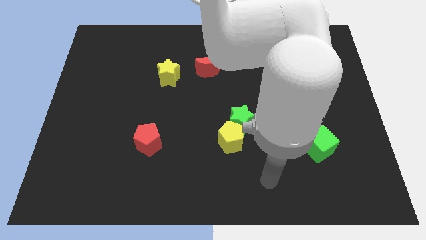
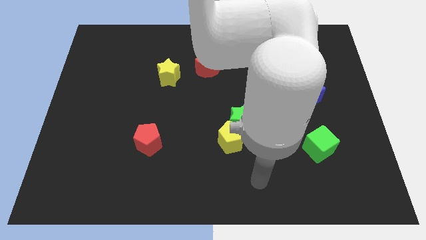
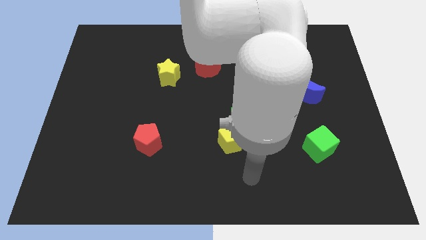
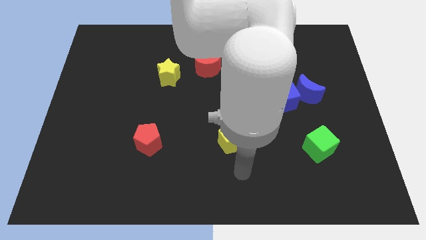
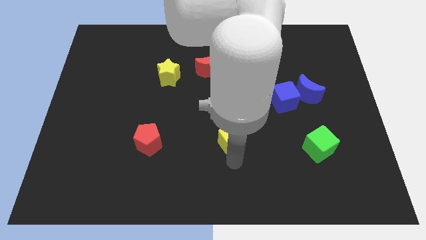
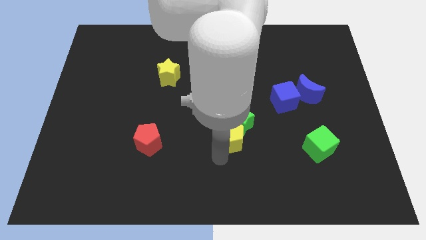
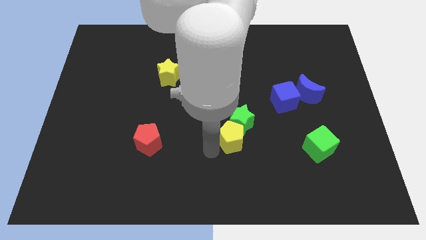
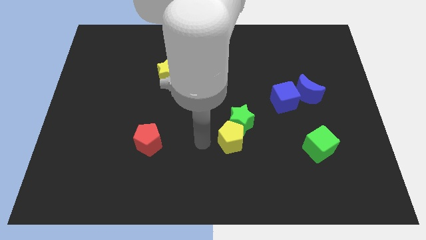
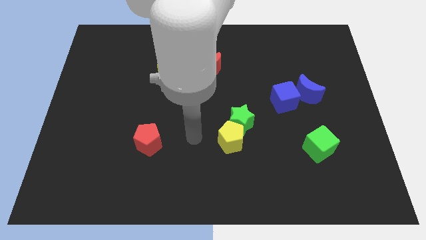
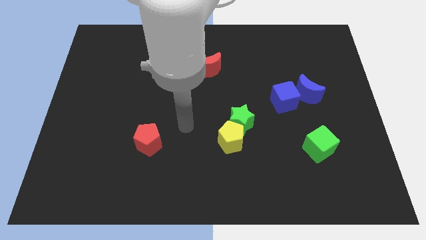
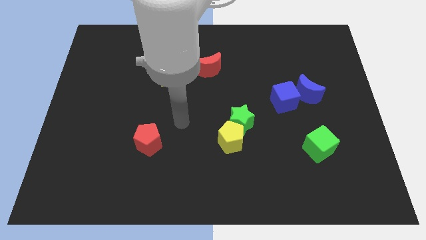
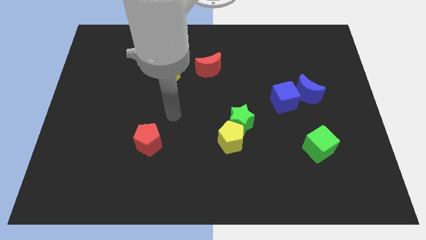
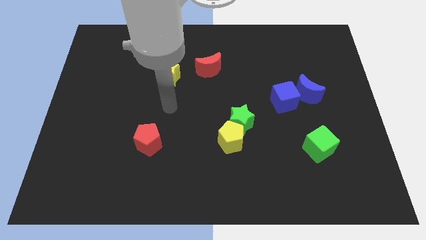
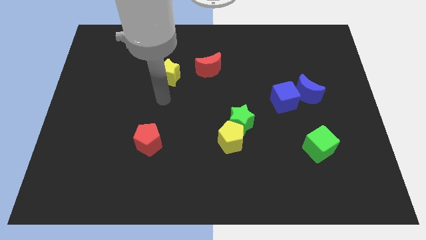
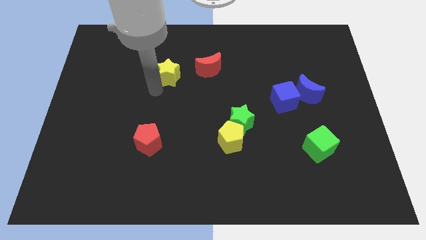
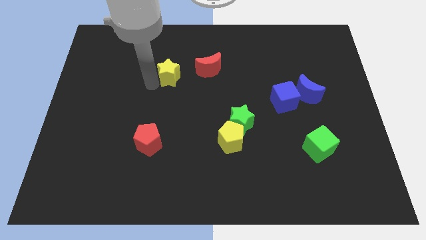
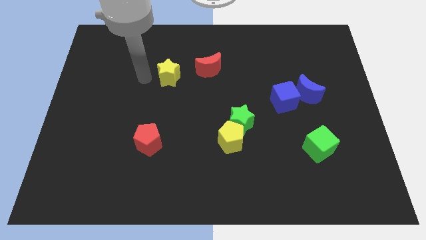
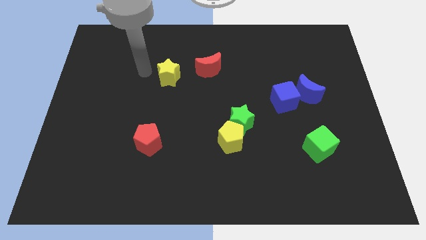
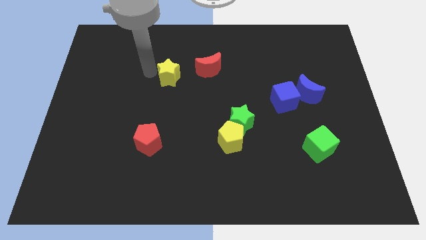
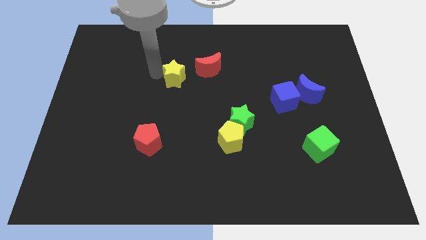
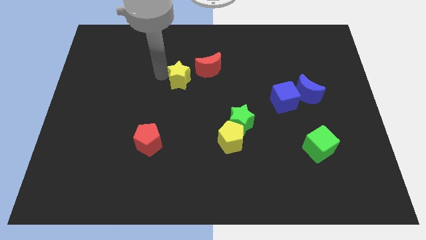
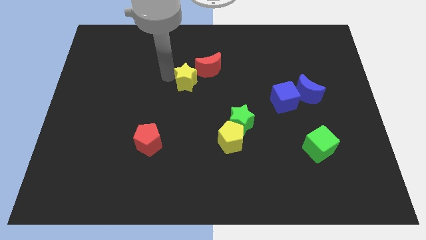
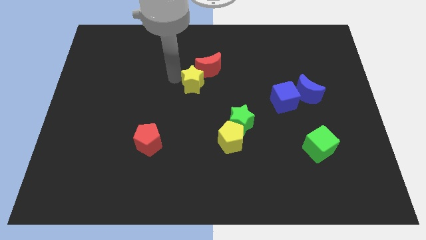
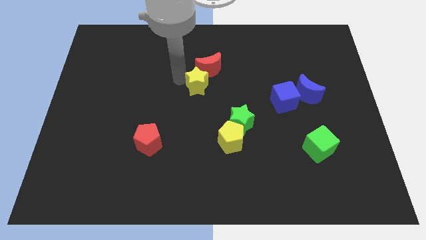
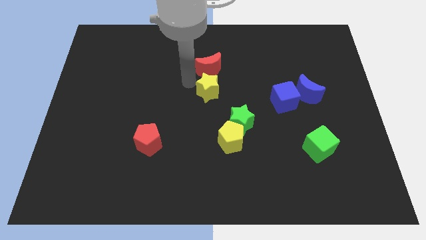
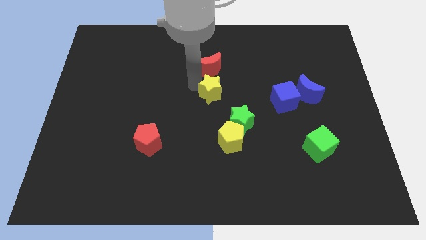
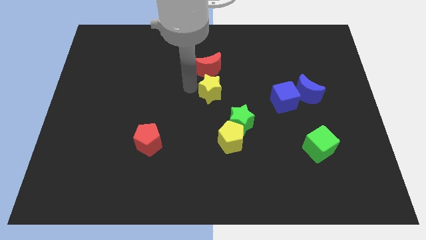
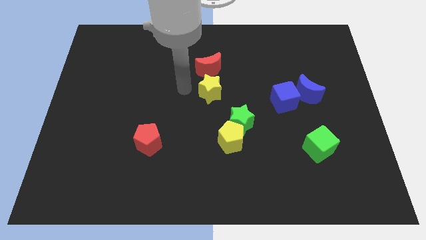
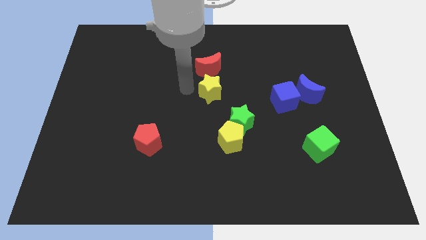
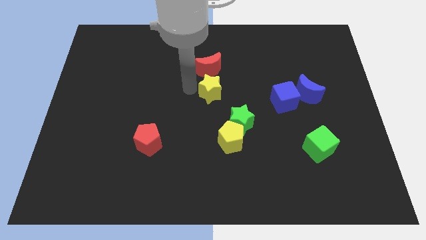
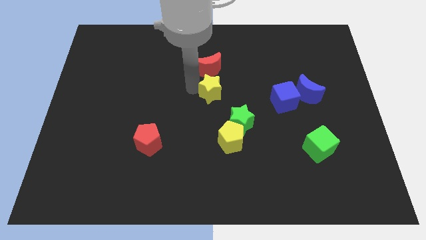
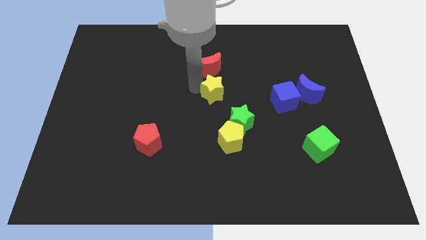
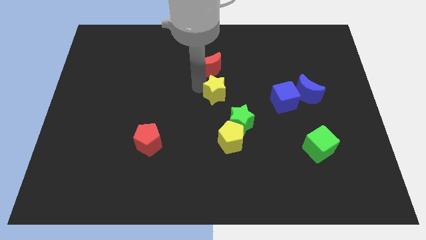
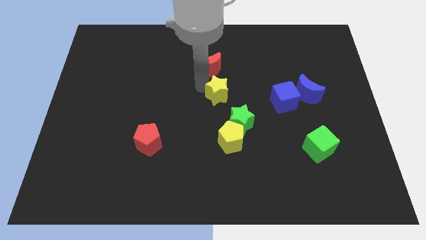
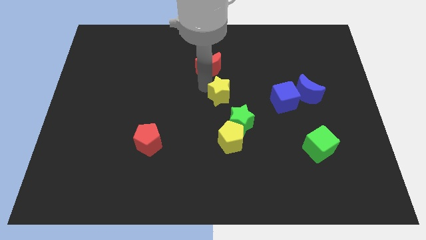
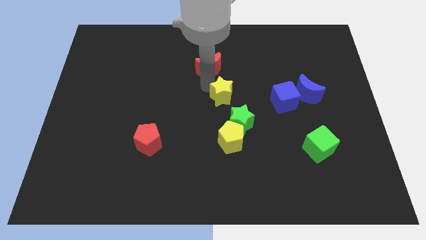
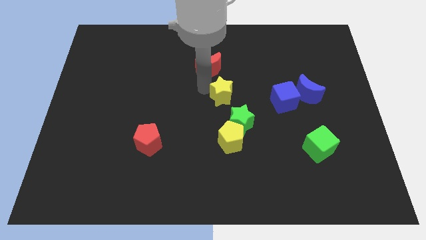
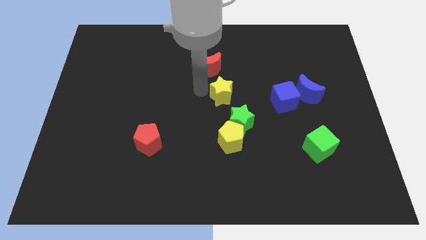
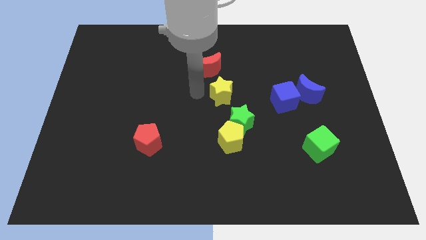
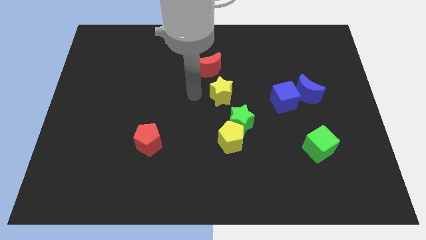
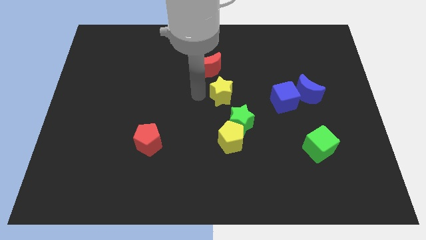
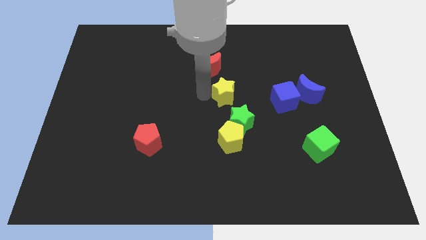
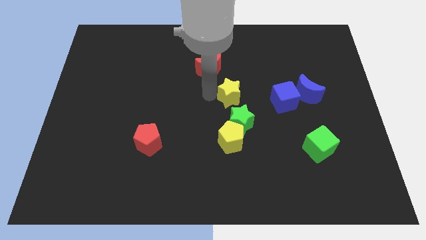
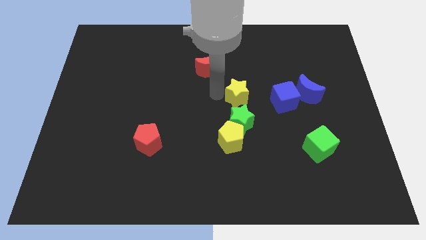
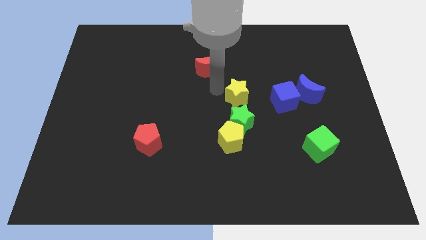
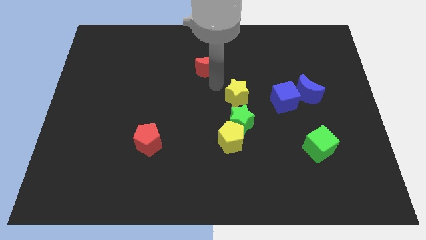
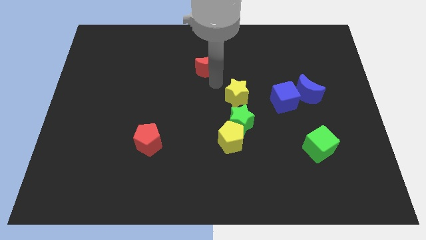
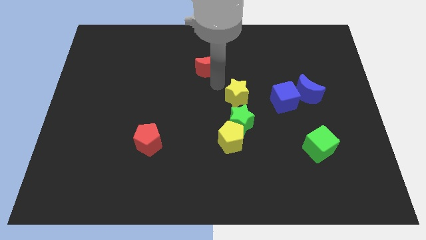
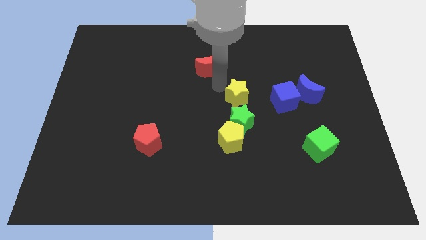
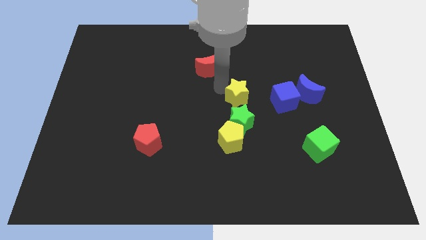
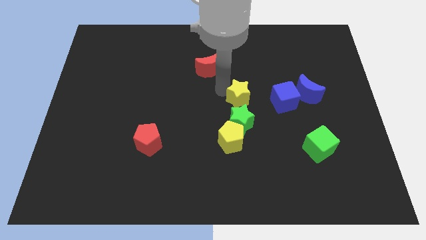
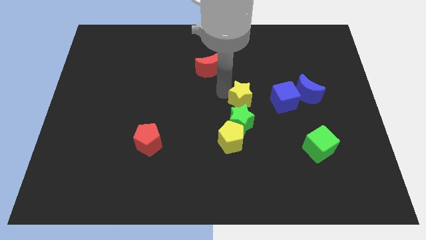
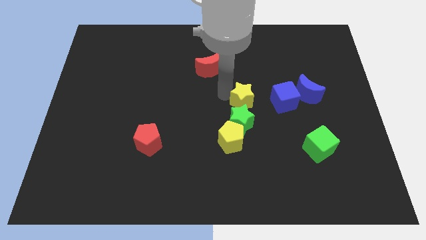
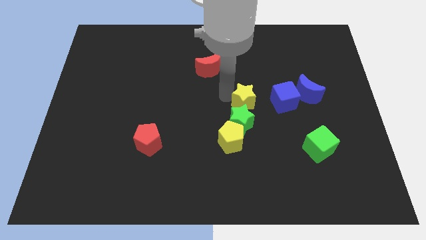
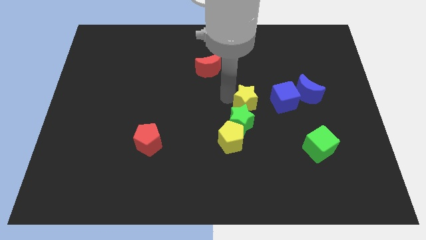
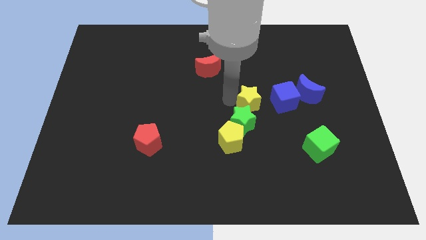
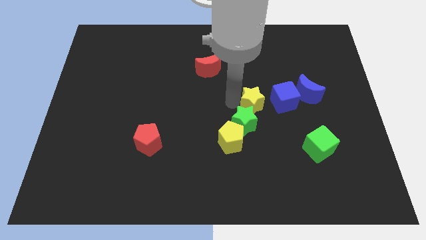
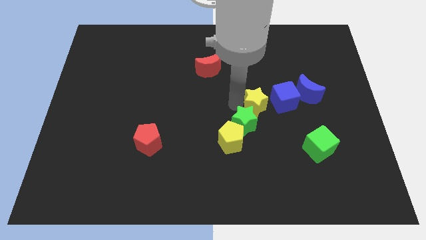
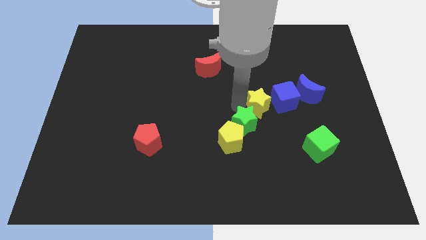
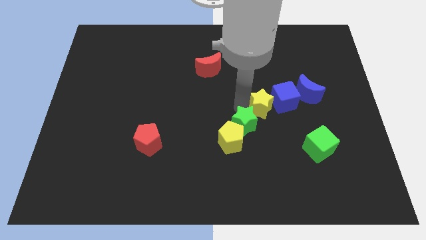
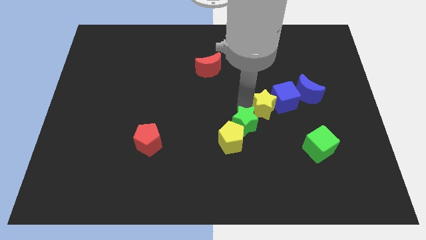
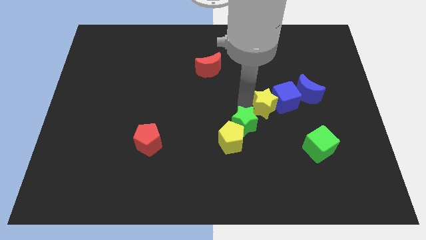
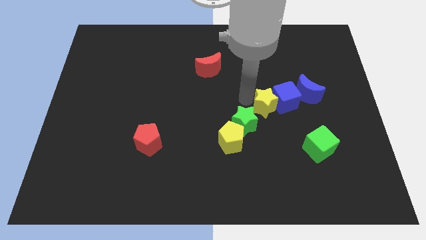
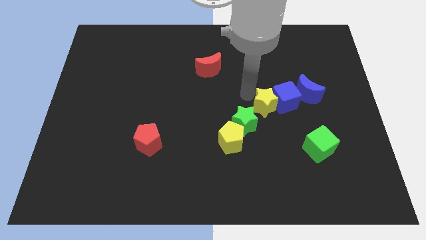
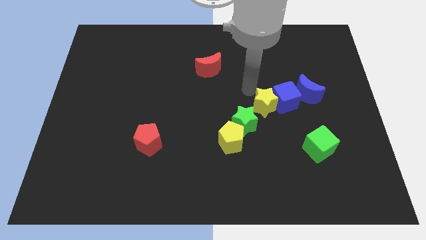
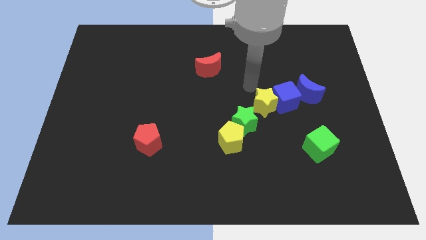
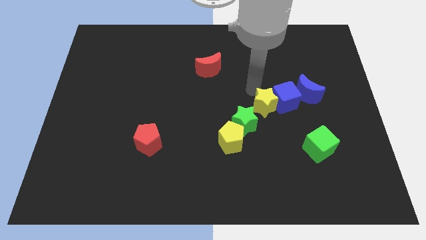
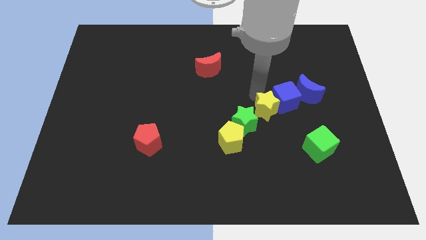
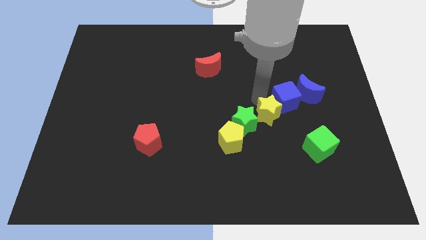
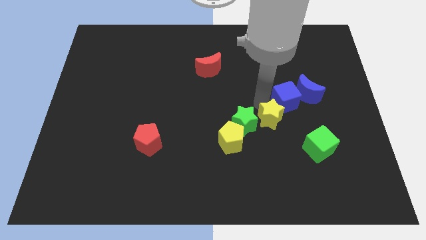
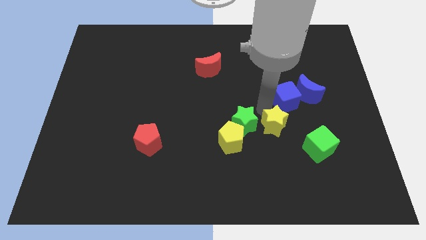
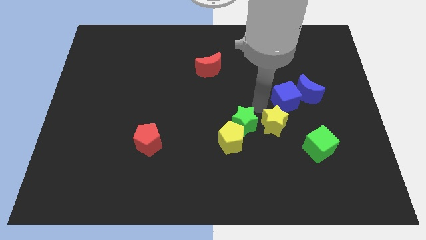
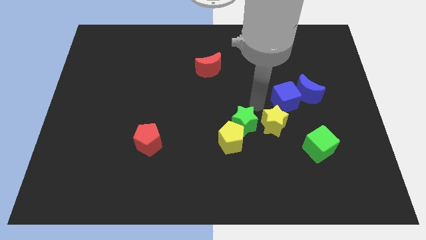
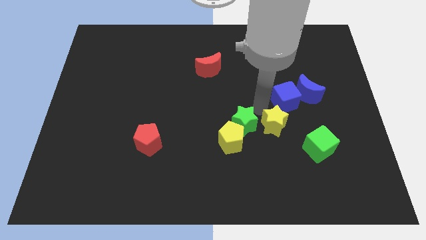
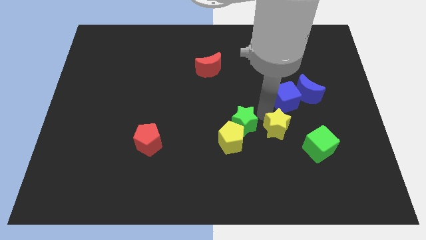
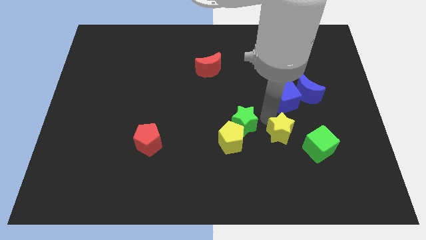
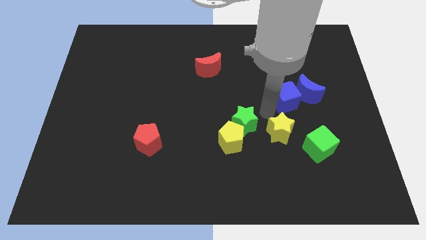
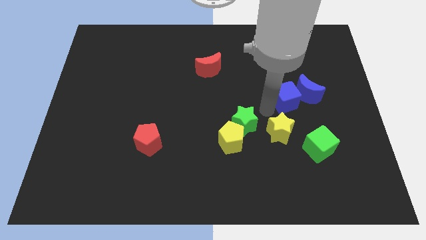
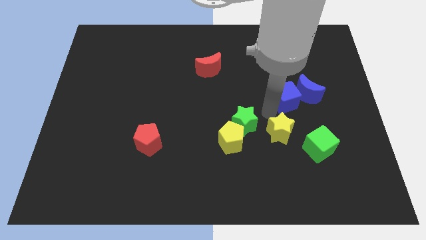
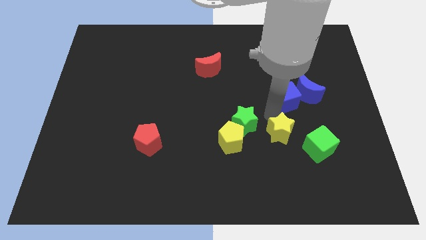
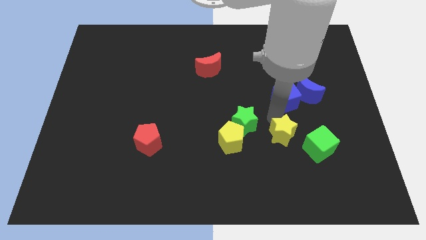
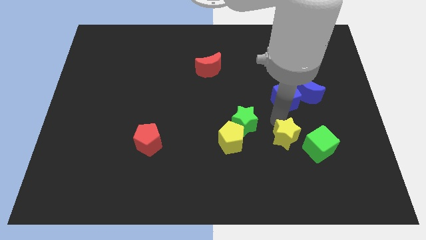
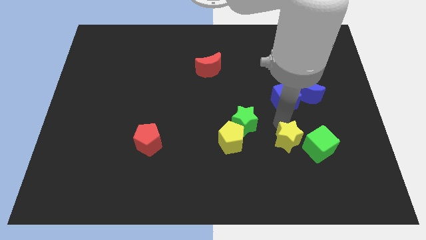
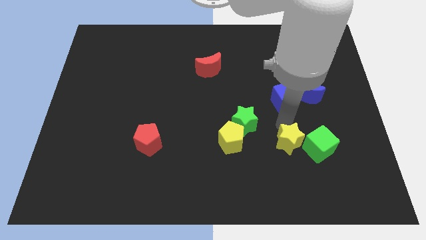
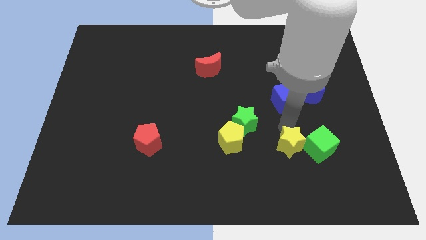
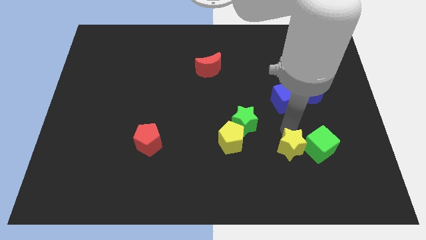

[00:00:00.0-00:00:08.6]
put the yellow star to the bottom left of the green cube
